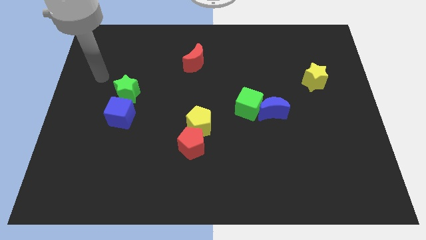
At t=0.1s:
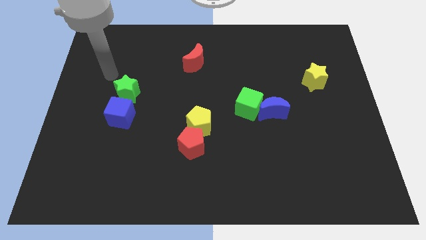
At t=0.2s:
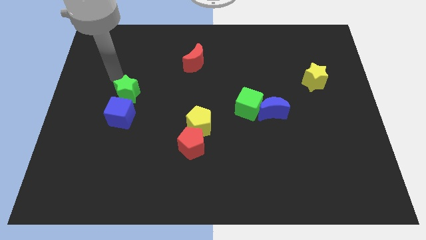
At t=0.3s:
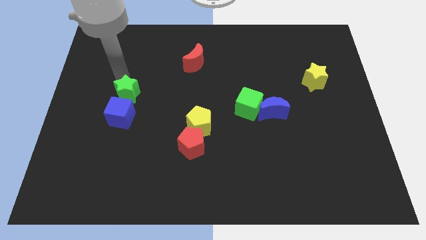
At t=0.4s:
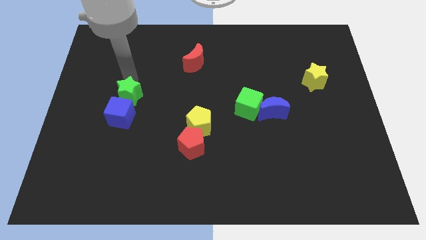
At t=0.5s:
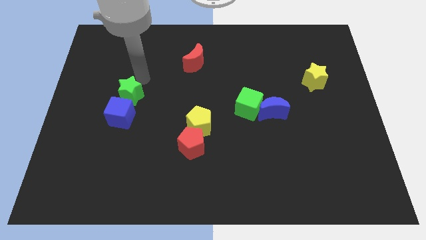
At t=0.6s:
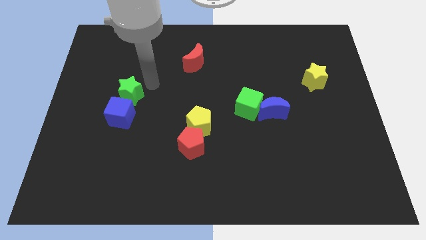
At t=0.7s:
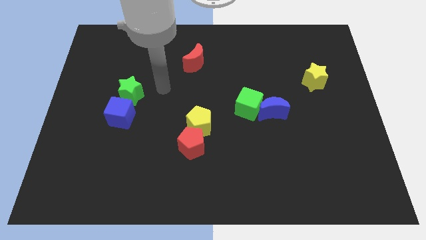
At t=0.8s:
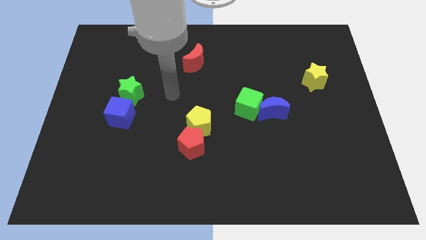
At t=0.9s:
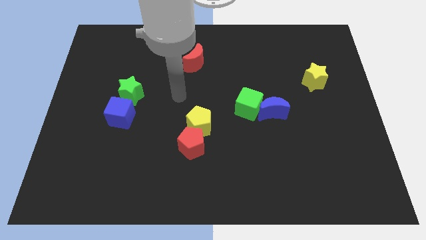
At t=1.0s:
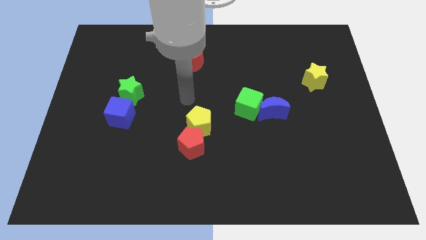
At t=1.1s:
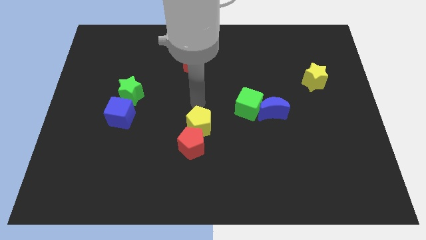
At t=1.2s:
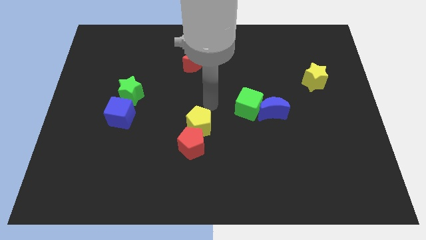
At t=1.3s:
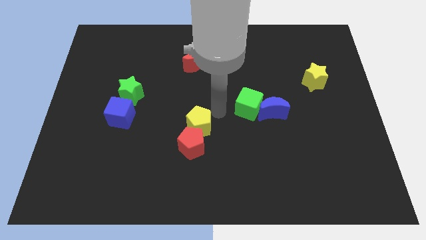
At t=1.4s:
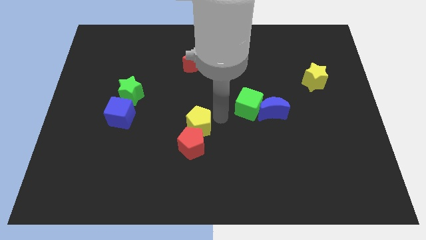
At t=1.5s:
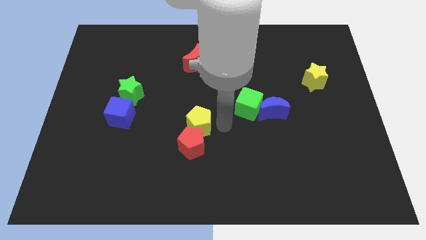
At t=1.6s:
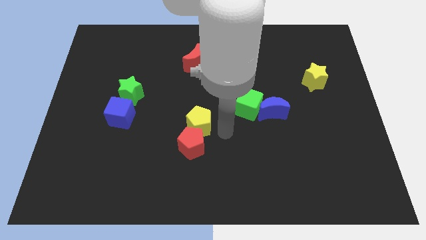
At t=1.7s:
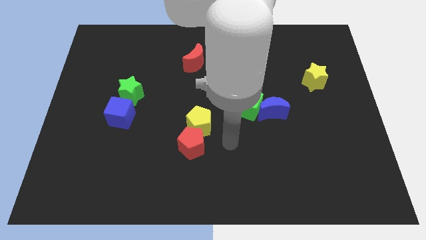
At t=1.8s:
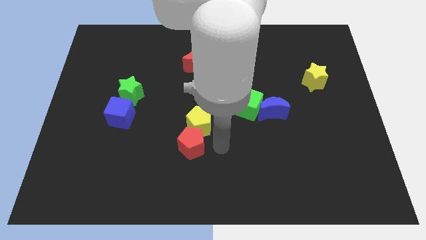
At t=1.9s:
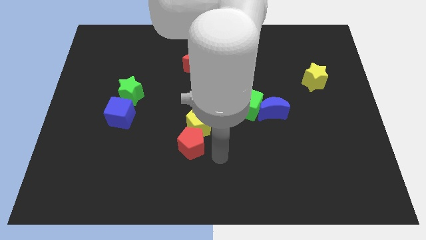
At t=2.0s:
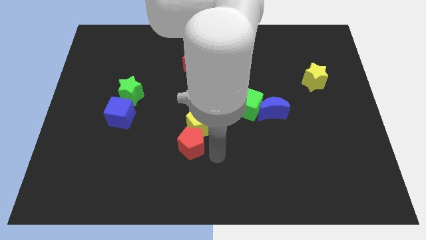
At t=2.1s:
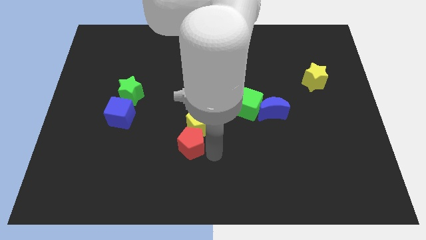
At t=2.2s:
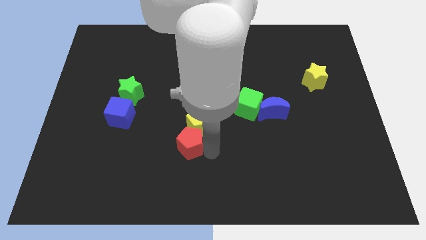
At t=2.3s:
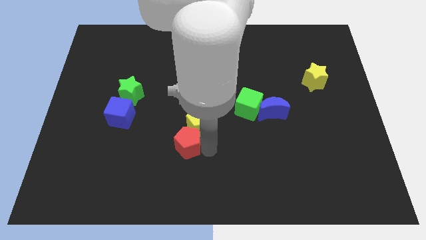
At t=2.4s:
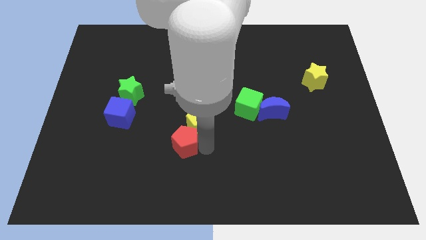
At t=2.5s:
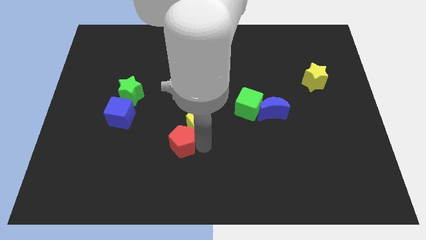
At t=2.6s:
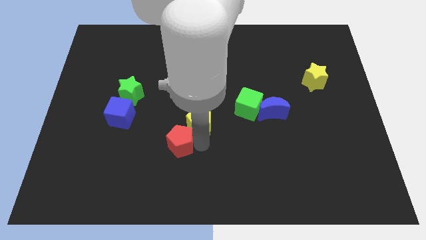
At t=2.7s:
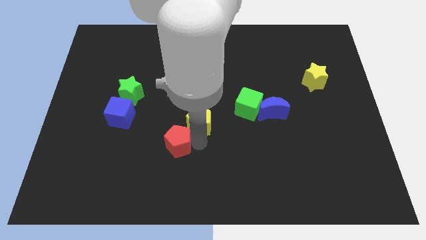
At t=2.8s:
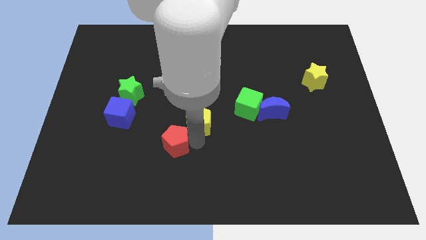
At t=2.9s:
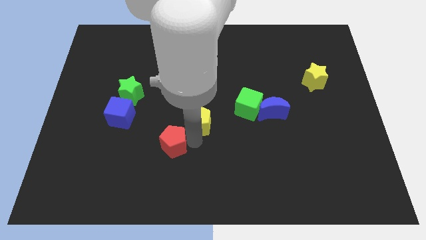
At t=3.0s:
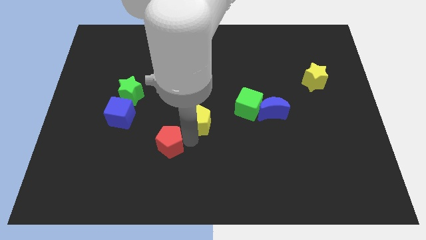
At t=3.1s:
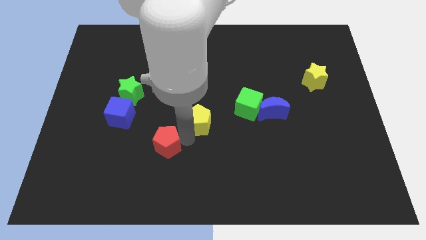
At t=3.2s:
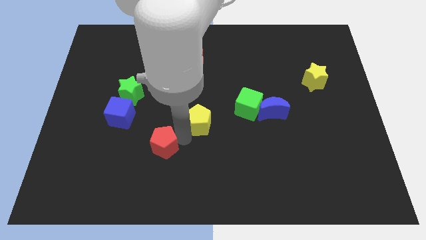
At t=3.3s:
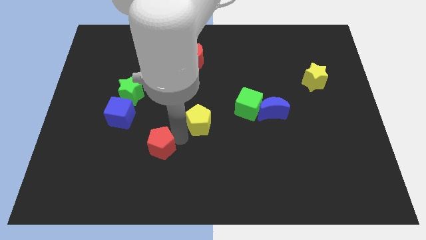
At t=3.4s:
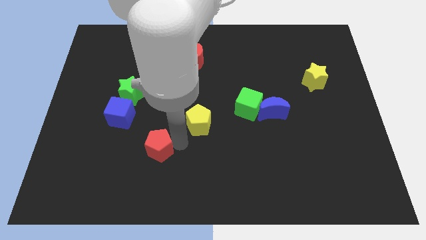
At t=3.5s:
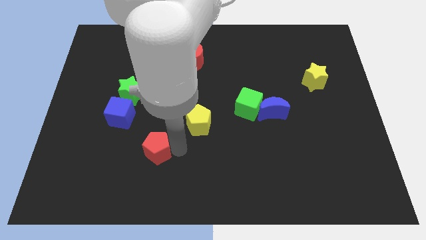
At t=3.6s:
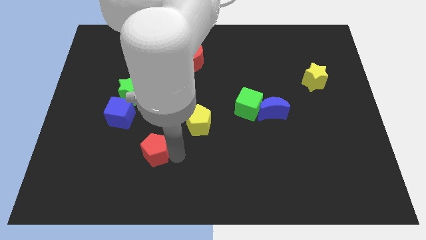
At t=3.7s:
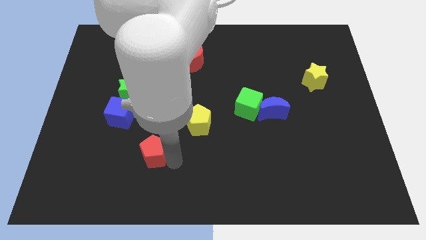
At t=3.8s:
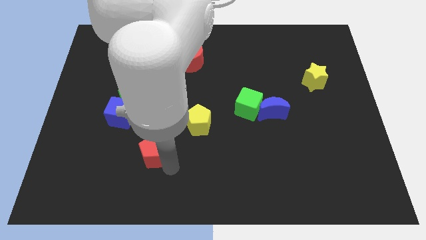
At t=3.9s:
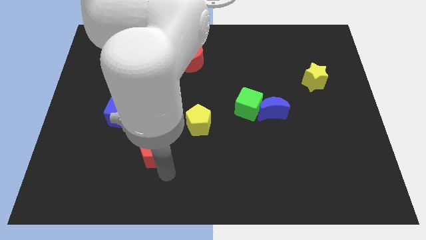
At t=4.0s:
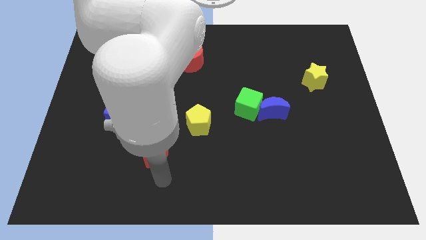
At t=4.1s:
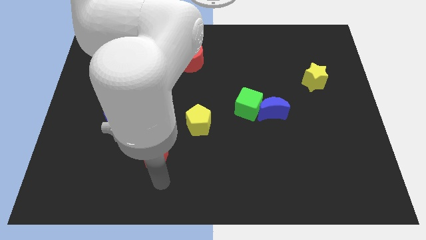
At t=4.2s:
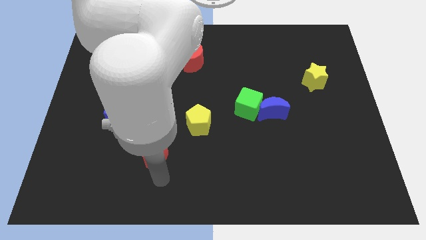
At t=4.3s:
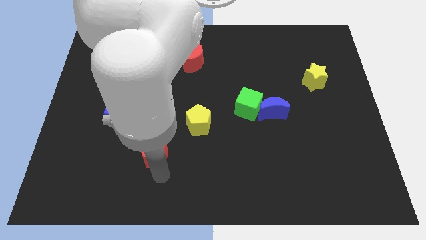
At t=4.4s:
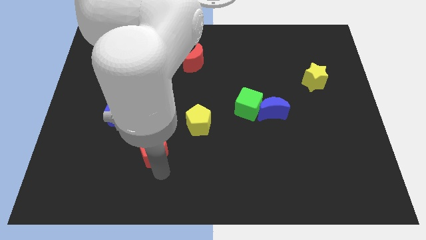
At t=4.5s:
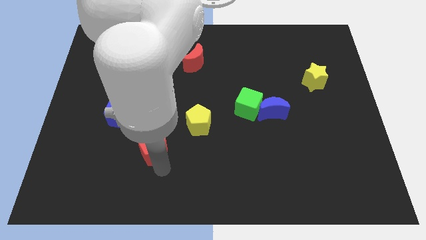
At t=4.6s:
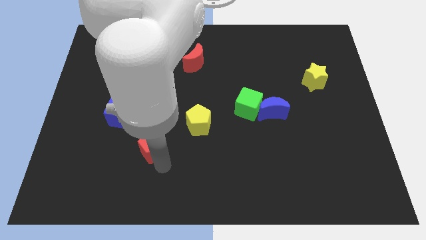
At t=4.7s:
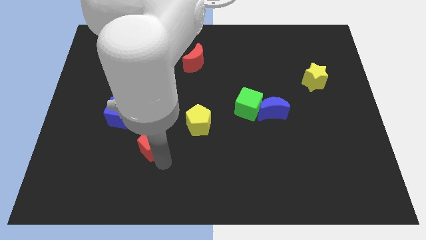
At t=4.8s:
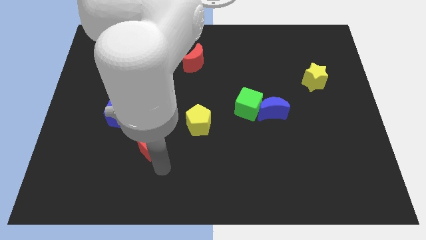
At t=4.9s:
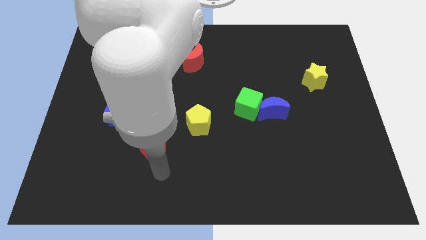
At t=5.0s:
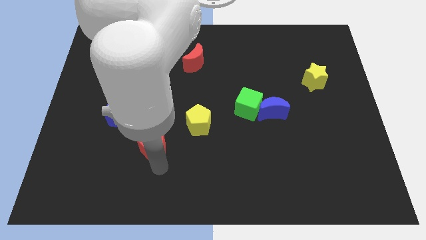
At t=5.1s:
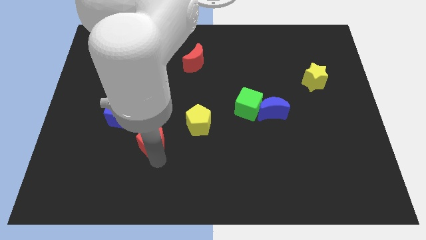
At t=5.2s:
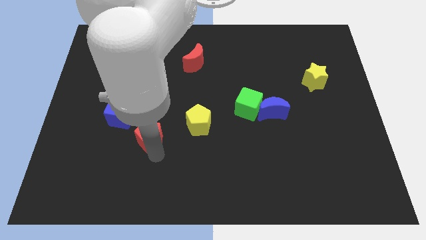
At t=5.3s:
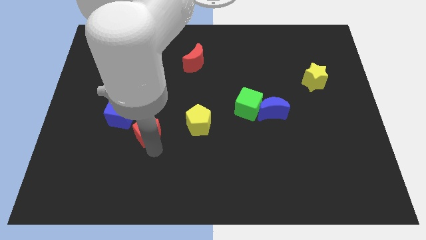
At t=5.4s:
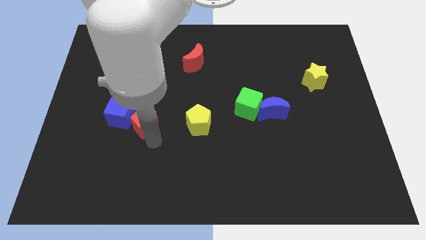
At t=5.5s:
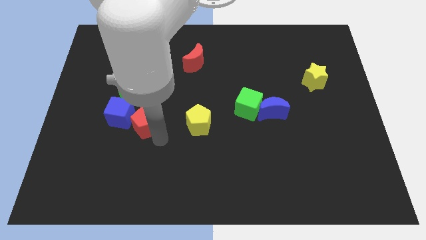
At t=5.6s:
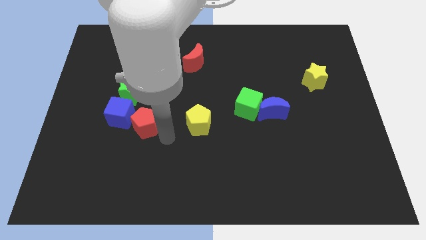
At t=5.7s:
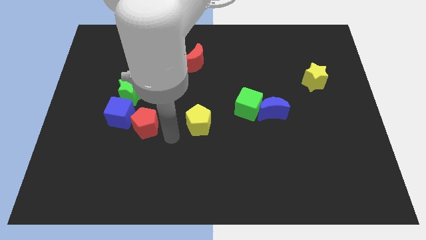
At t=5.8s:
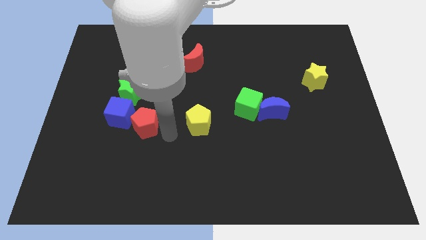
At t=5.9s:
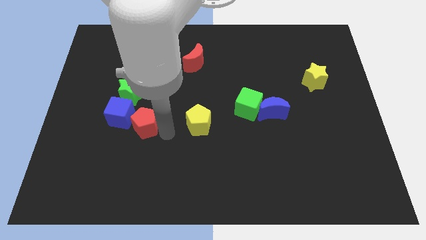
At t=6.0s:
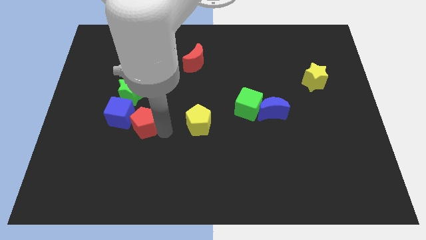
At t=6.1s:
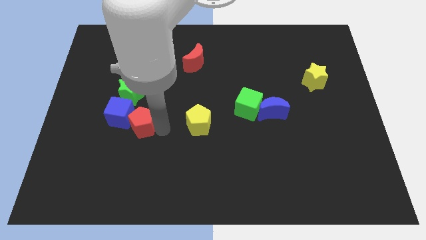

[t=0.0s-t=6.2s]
put the red pentagon next to the blue cube

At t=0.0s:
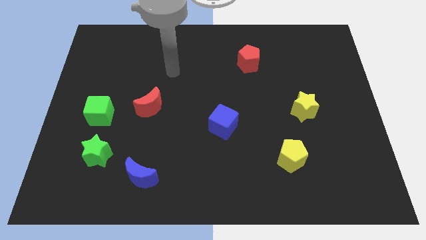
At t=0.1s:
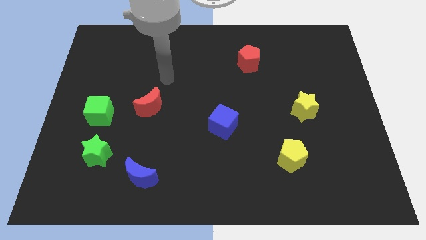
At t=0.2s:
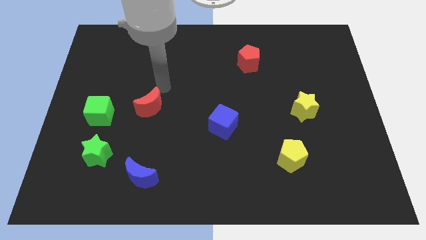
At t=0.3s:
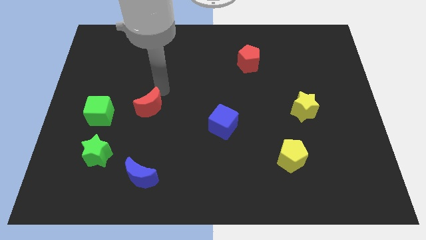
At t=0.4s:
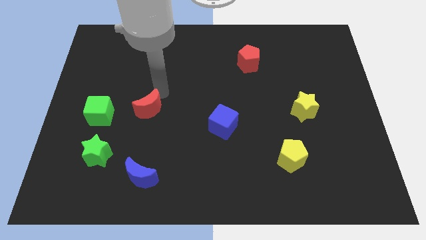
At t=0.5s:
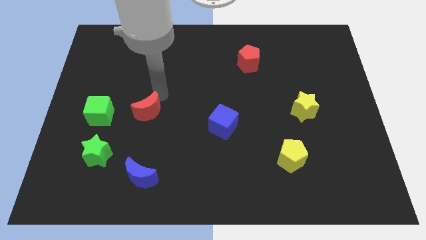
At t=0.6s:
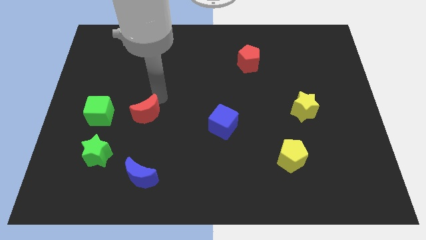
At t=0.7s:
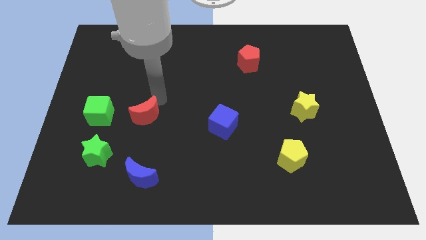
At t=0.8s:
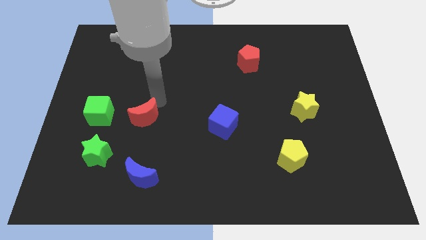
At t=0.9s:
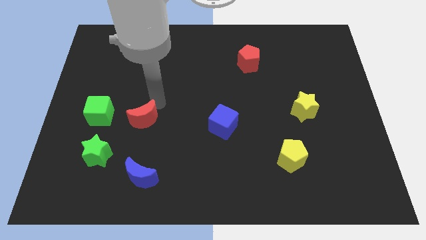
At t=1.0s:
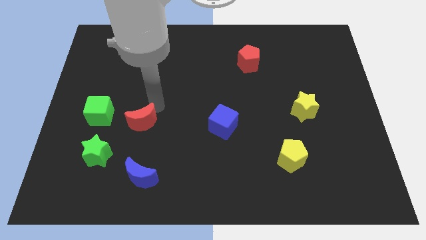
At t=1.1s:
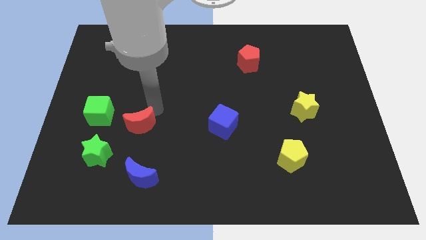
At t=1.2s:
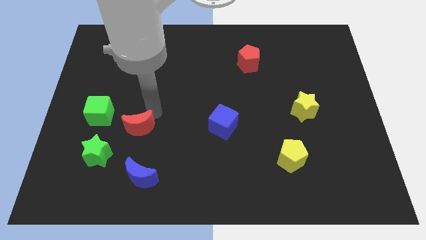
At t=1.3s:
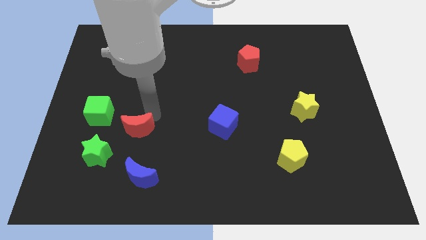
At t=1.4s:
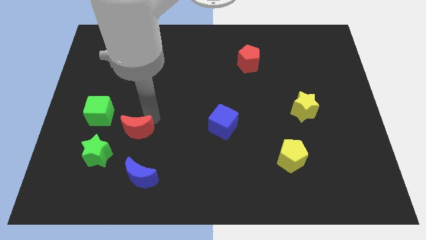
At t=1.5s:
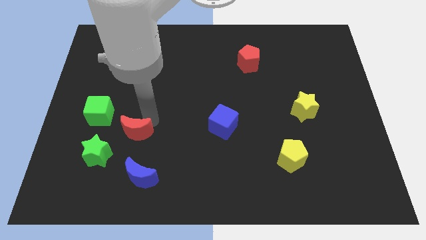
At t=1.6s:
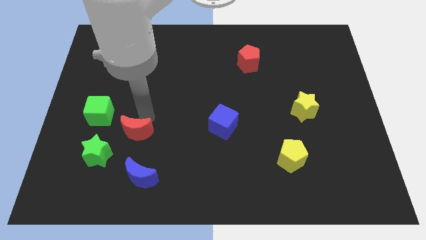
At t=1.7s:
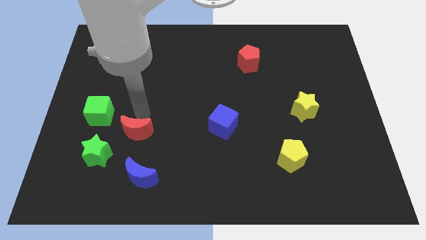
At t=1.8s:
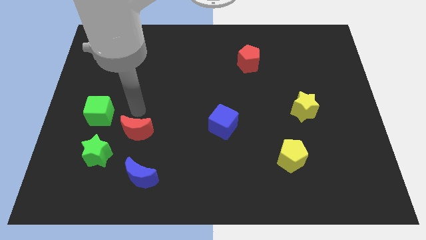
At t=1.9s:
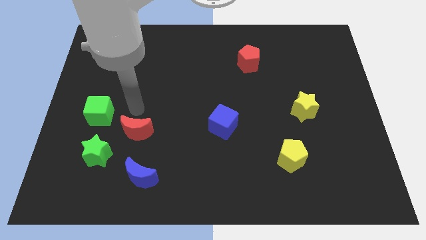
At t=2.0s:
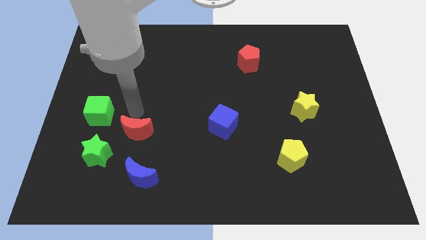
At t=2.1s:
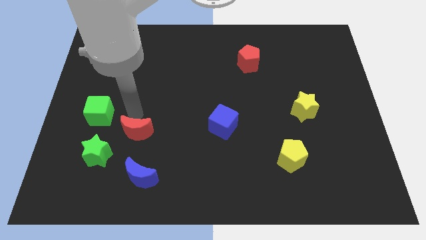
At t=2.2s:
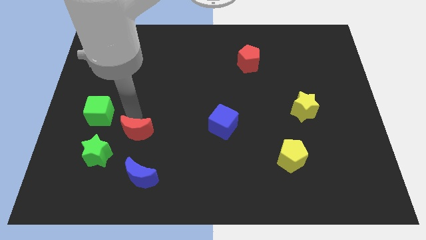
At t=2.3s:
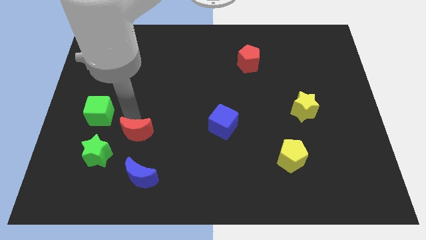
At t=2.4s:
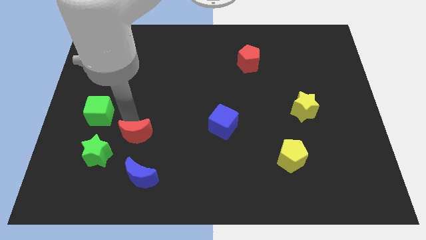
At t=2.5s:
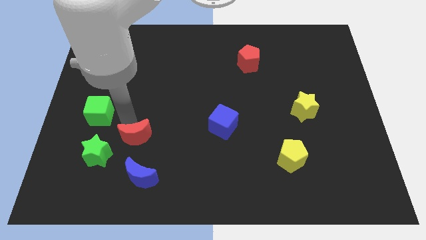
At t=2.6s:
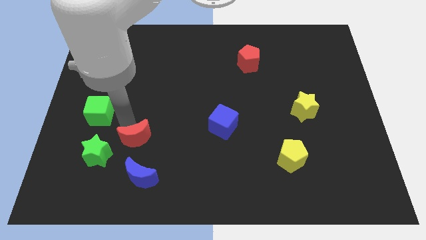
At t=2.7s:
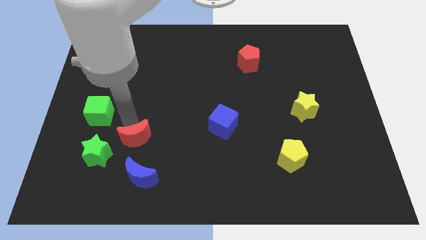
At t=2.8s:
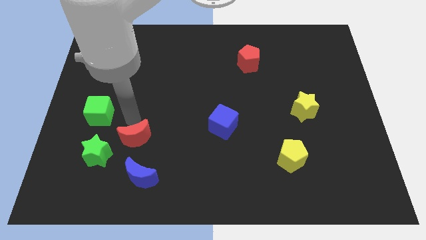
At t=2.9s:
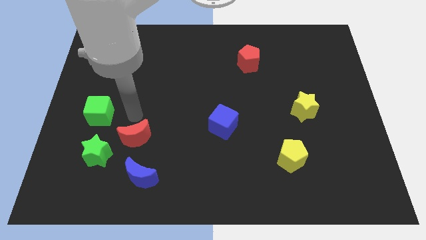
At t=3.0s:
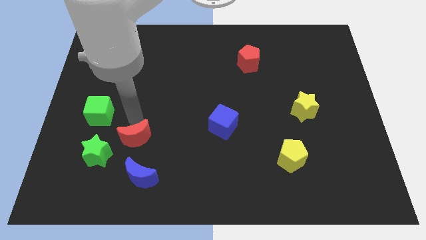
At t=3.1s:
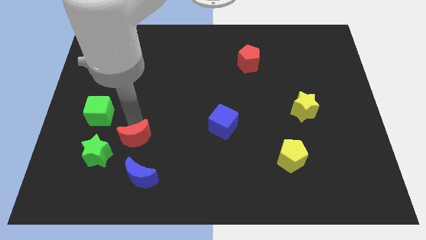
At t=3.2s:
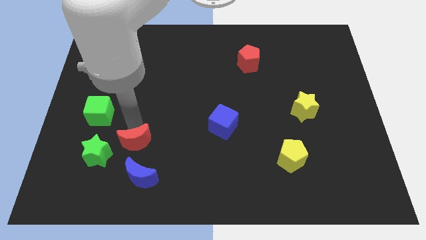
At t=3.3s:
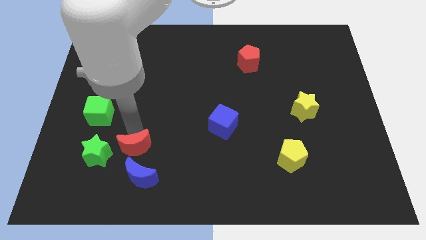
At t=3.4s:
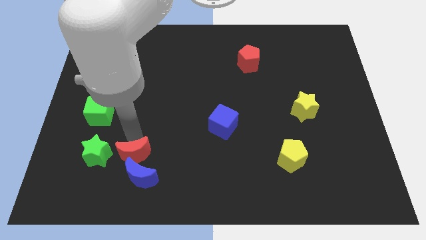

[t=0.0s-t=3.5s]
put the red moon next to the blue moon
